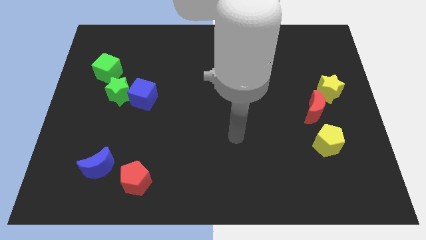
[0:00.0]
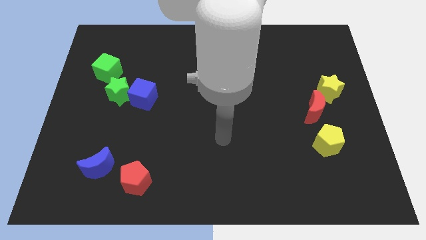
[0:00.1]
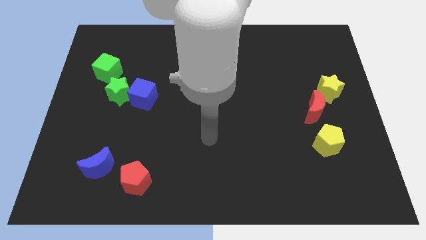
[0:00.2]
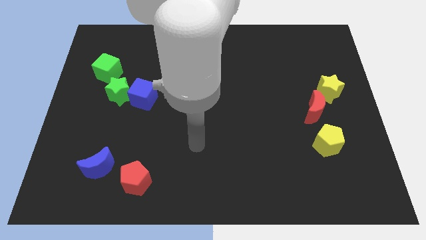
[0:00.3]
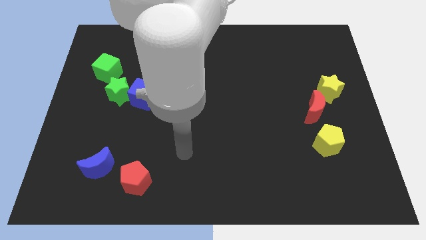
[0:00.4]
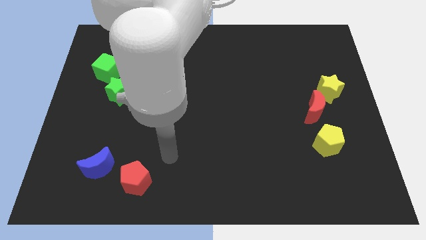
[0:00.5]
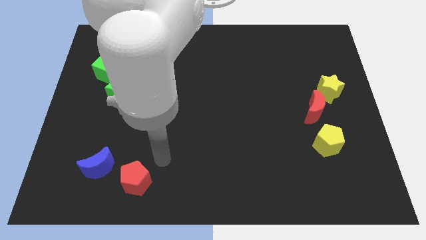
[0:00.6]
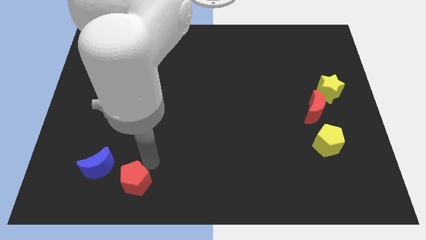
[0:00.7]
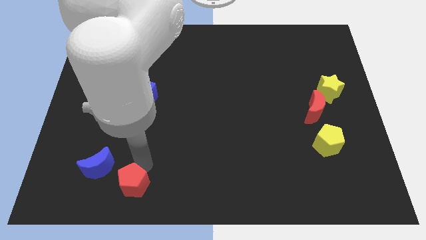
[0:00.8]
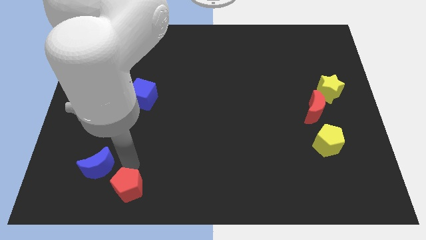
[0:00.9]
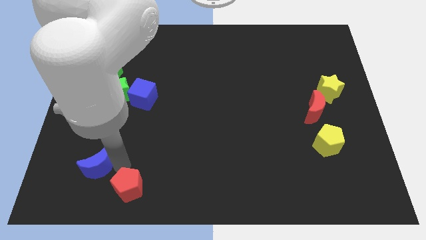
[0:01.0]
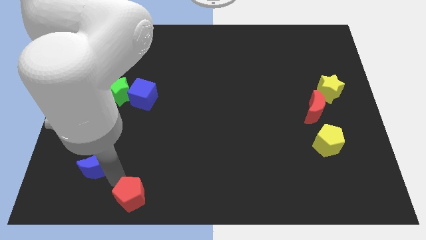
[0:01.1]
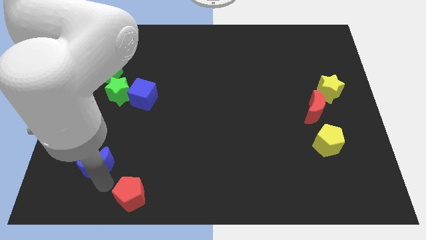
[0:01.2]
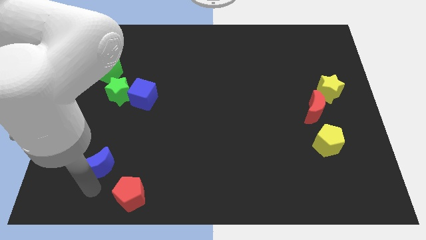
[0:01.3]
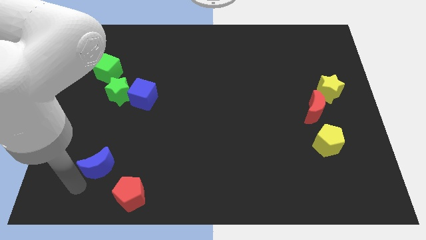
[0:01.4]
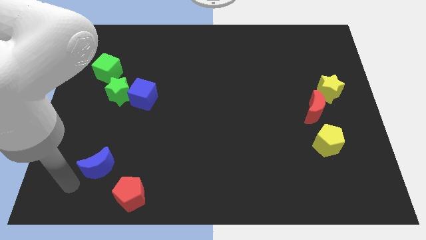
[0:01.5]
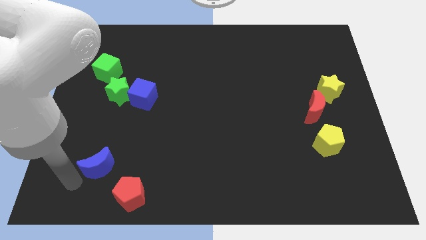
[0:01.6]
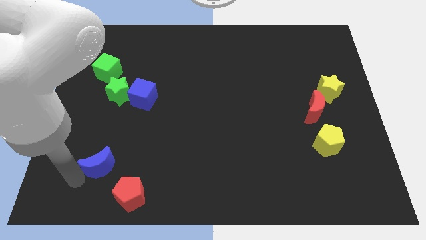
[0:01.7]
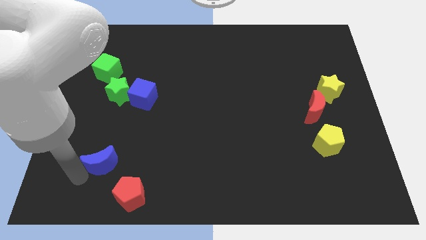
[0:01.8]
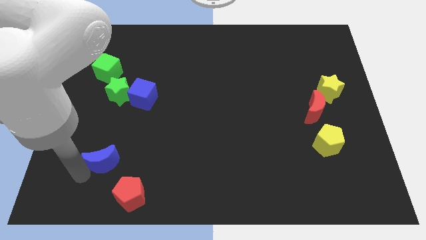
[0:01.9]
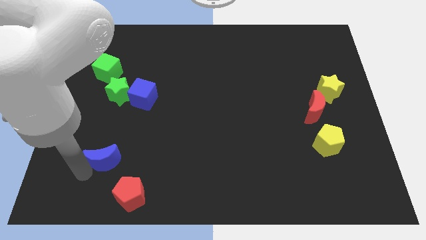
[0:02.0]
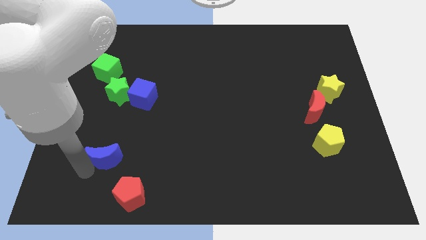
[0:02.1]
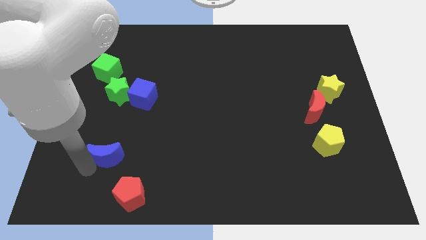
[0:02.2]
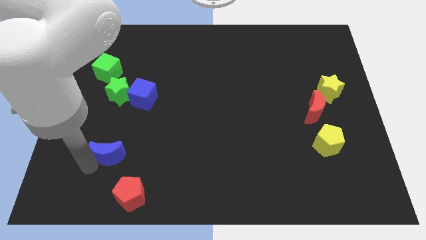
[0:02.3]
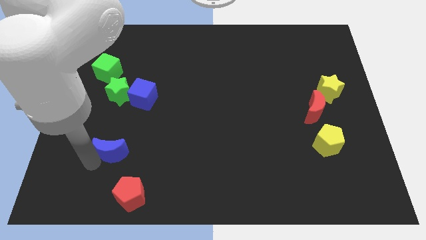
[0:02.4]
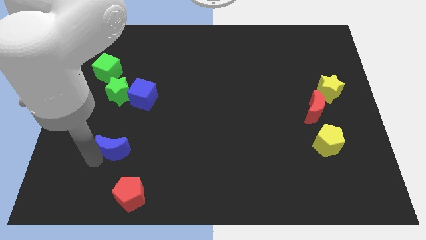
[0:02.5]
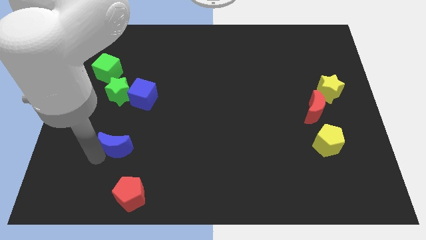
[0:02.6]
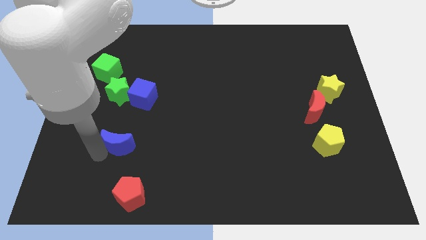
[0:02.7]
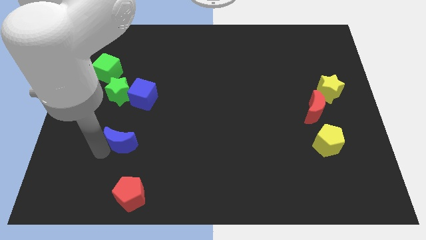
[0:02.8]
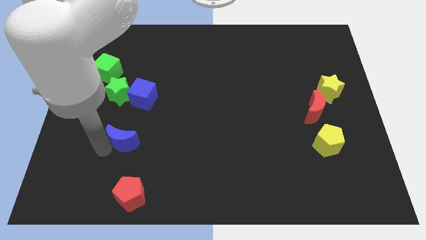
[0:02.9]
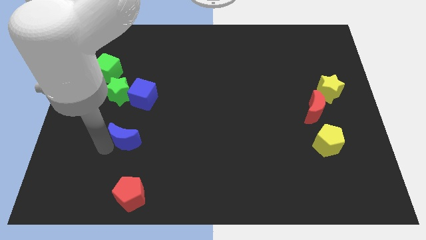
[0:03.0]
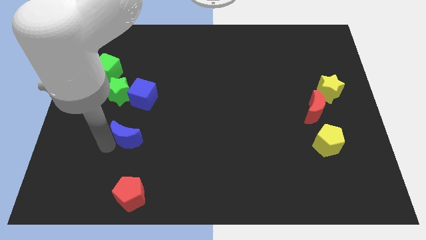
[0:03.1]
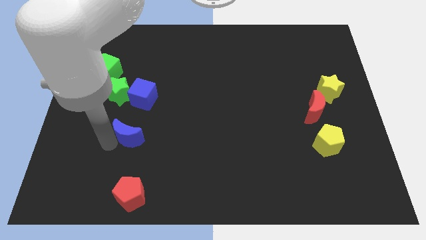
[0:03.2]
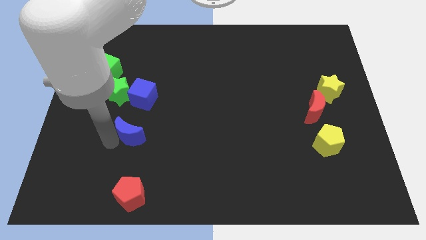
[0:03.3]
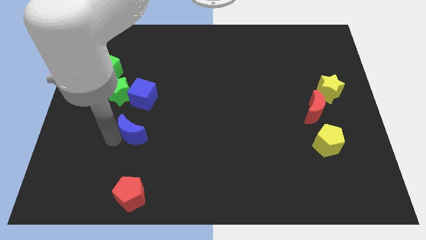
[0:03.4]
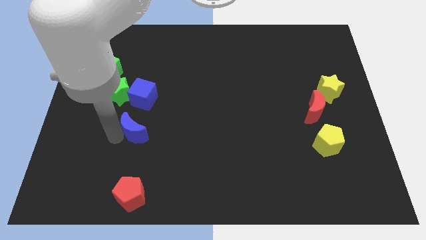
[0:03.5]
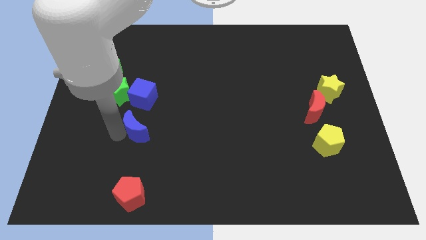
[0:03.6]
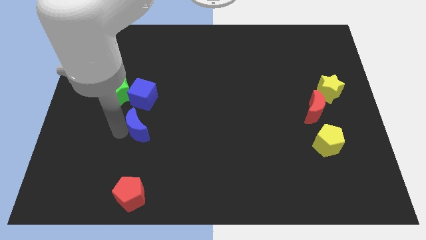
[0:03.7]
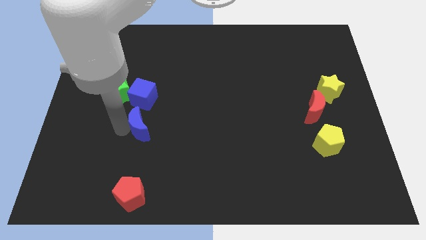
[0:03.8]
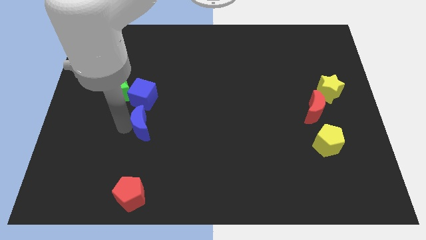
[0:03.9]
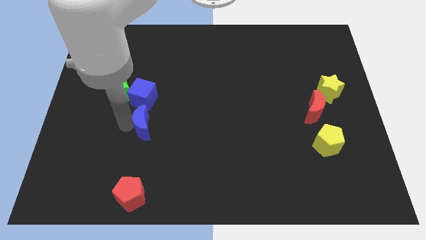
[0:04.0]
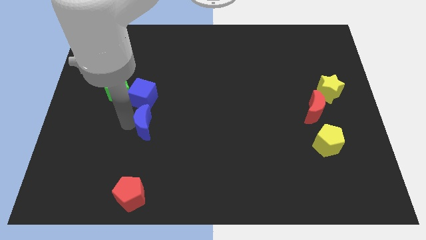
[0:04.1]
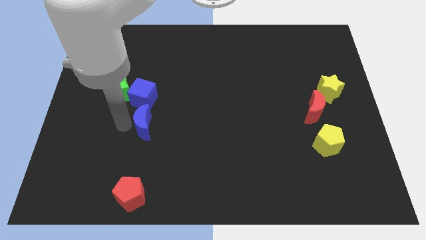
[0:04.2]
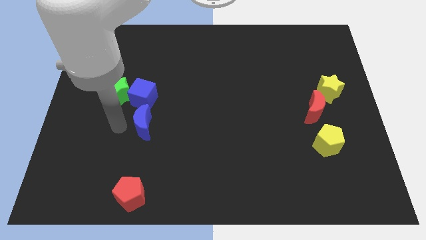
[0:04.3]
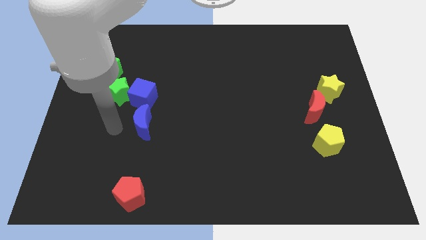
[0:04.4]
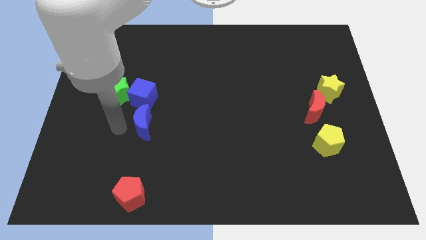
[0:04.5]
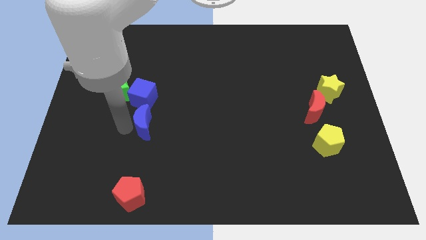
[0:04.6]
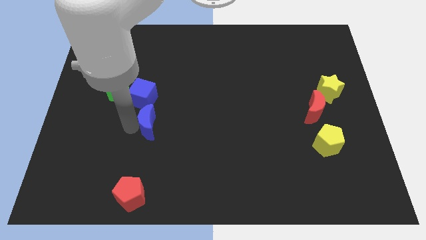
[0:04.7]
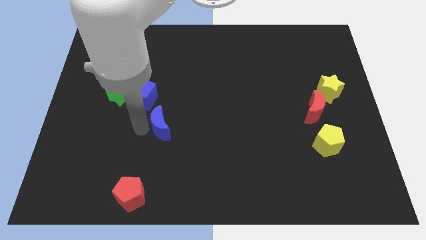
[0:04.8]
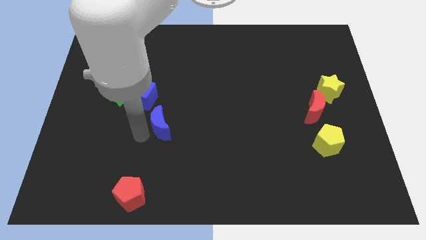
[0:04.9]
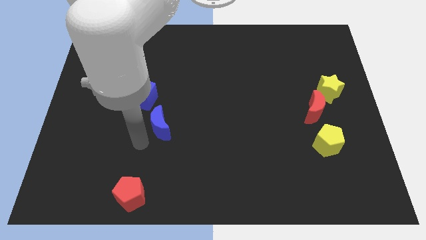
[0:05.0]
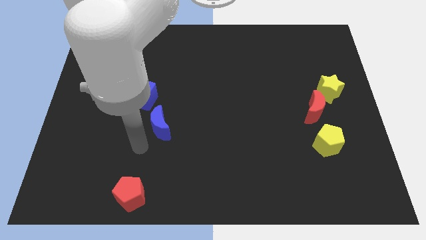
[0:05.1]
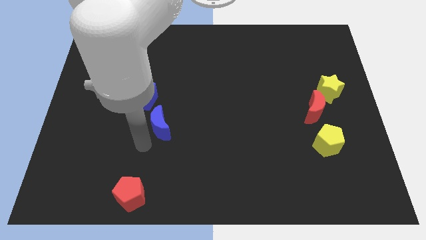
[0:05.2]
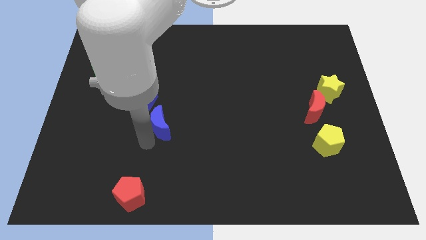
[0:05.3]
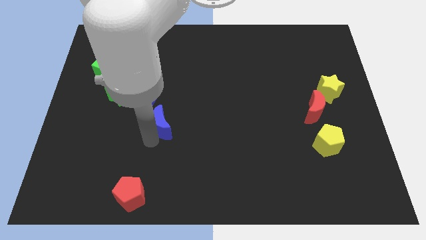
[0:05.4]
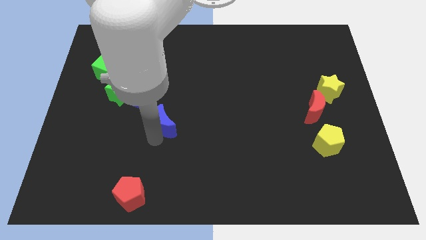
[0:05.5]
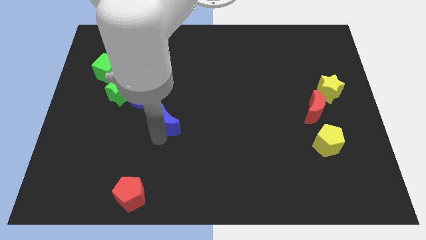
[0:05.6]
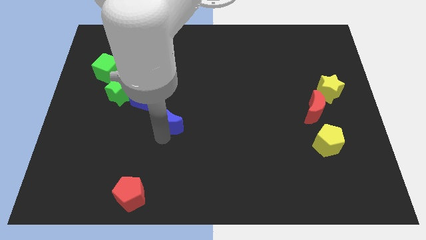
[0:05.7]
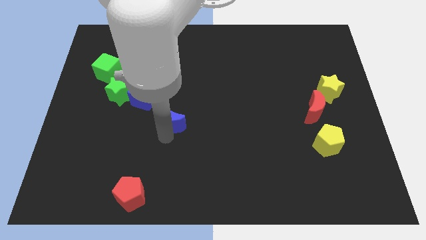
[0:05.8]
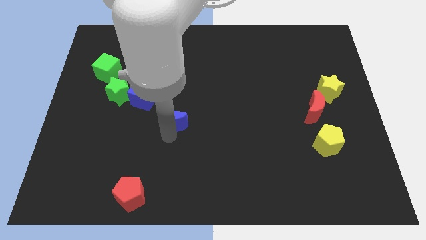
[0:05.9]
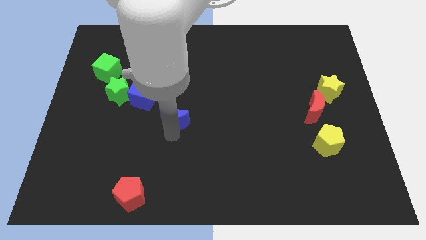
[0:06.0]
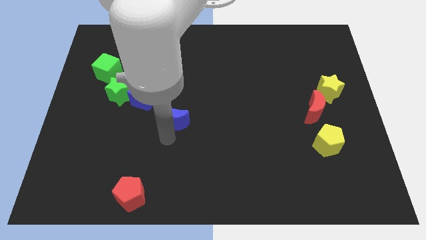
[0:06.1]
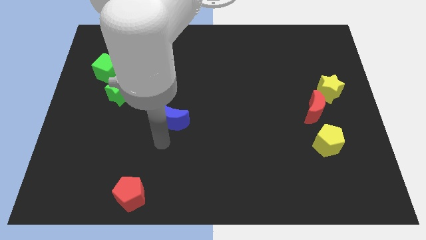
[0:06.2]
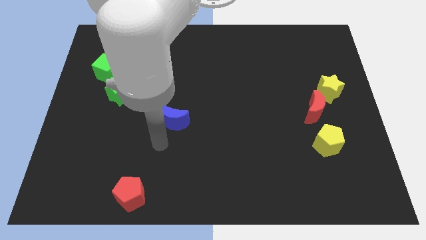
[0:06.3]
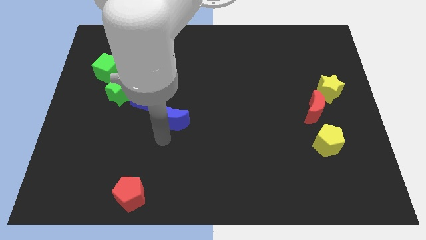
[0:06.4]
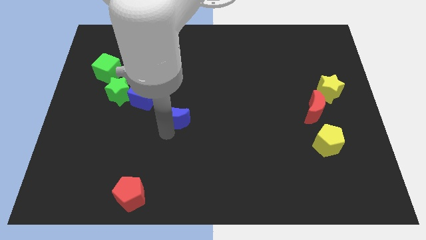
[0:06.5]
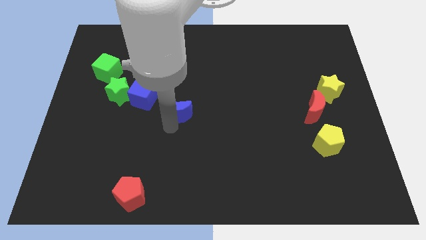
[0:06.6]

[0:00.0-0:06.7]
push the blue moon up and to the right diagonally

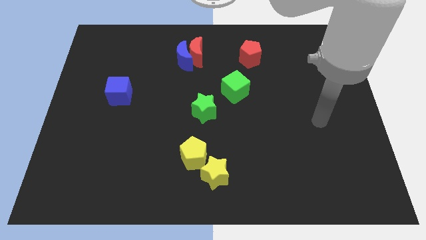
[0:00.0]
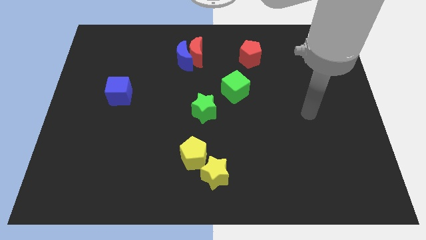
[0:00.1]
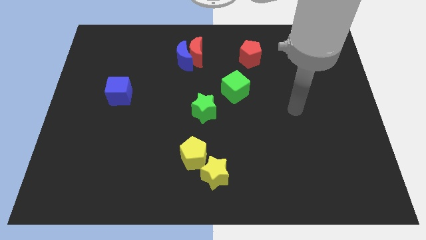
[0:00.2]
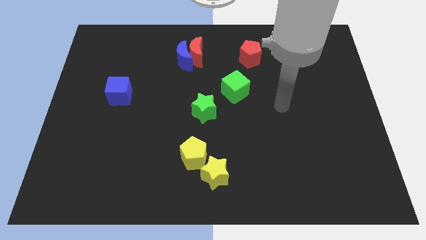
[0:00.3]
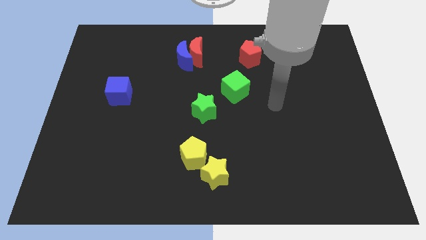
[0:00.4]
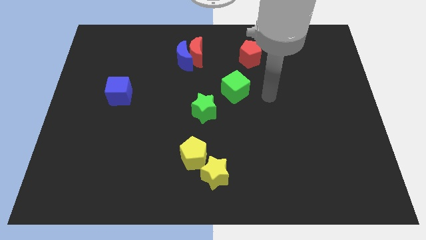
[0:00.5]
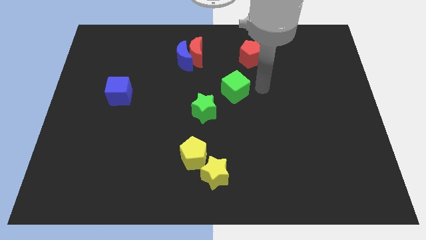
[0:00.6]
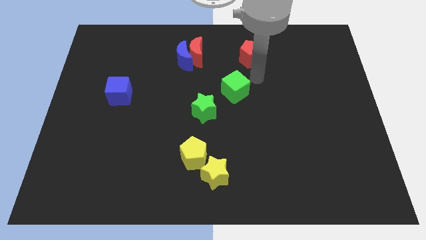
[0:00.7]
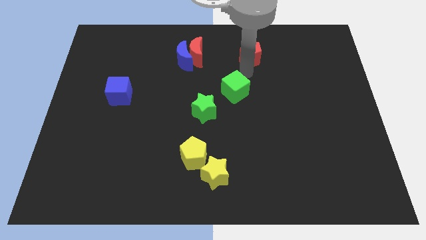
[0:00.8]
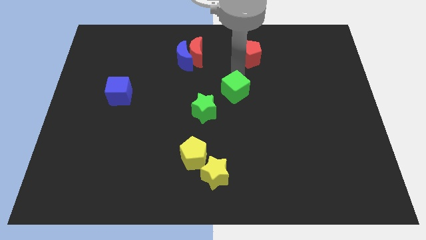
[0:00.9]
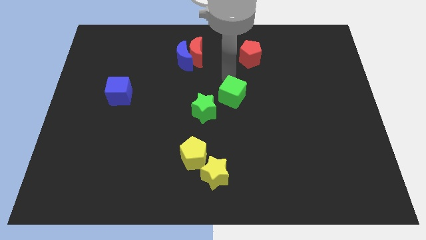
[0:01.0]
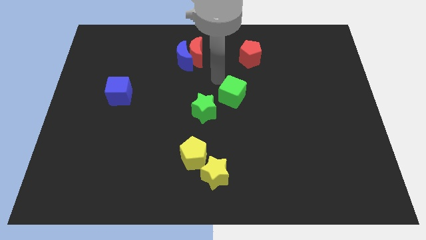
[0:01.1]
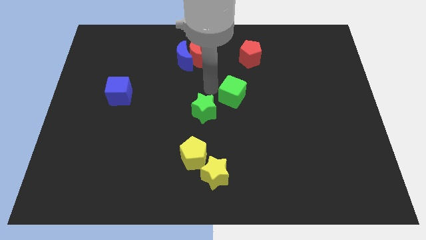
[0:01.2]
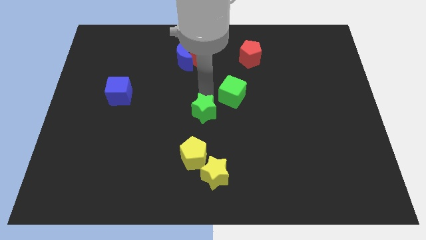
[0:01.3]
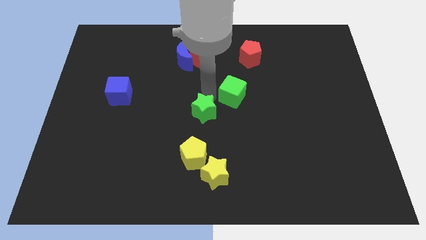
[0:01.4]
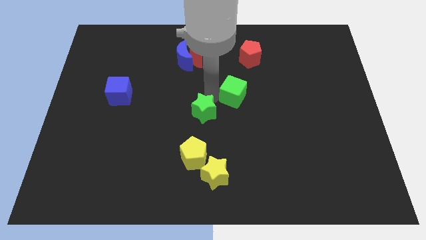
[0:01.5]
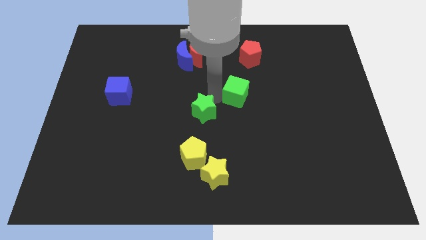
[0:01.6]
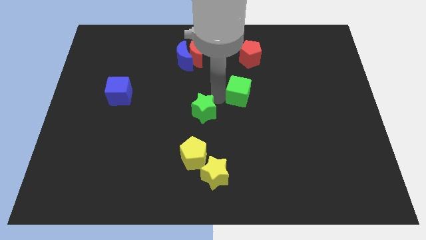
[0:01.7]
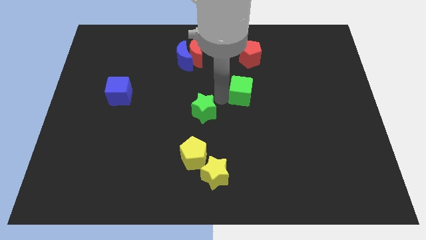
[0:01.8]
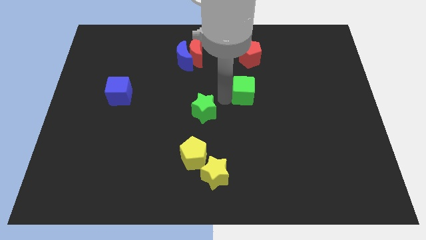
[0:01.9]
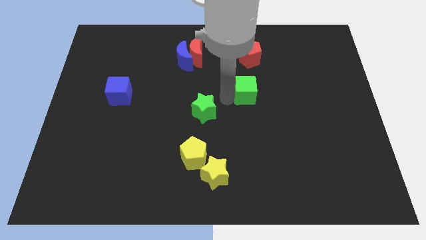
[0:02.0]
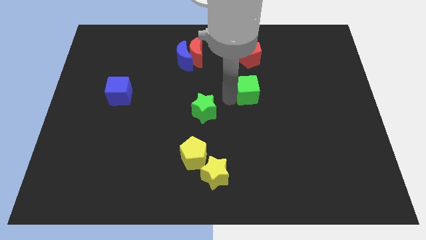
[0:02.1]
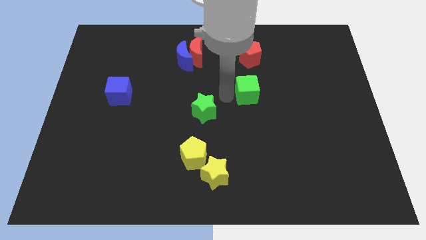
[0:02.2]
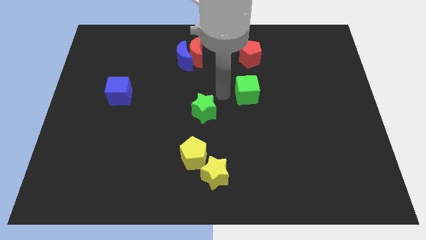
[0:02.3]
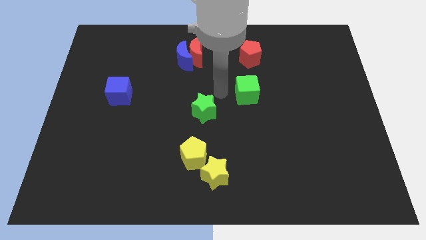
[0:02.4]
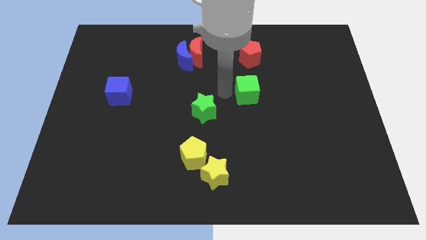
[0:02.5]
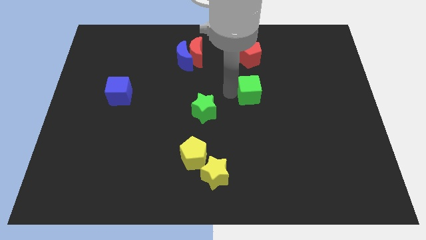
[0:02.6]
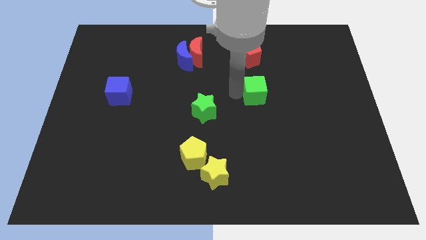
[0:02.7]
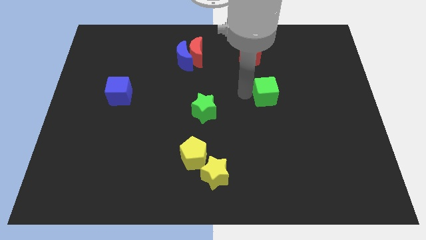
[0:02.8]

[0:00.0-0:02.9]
slide the green cube to the right a little
